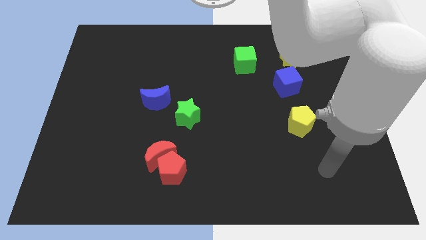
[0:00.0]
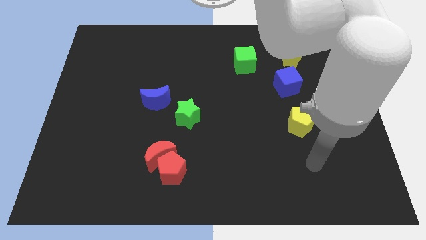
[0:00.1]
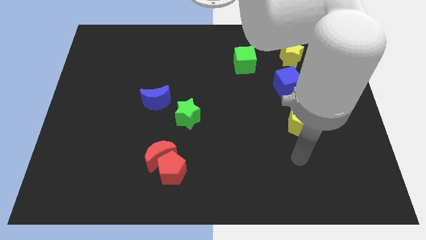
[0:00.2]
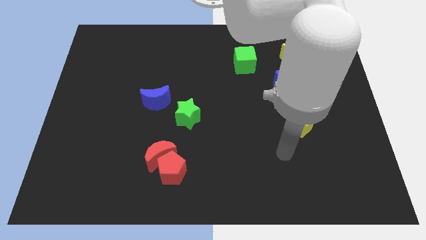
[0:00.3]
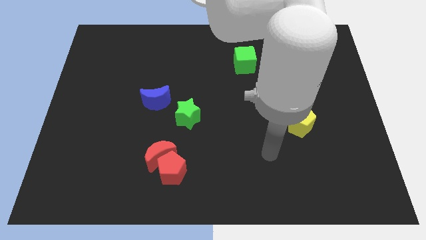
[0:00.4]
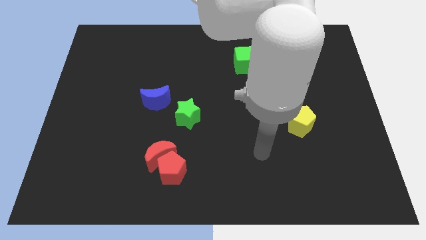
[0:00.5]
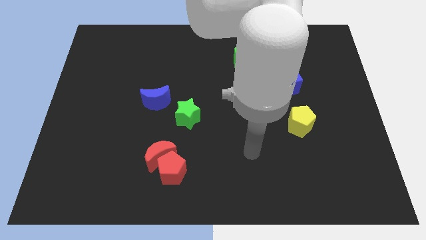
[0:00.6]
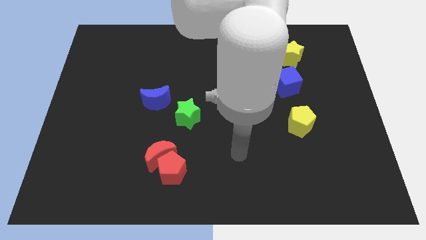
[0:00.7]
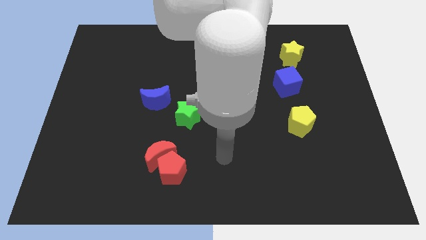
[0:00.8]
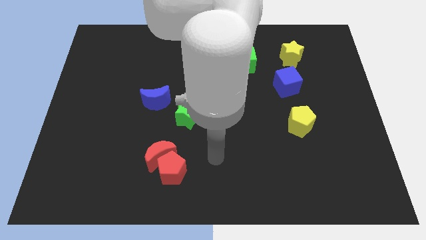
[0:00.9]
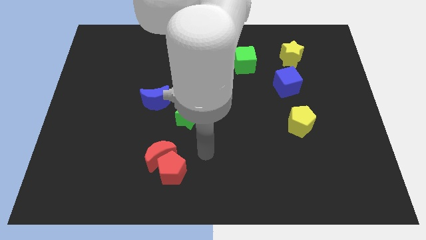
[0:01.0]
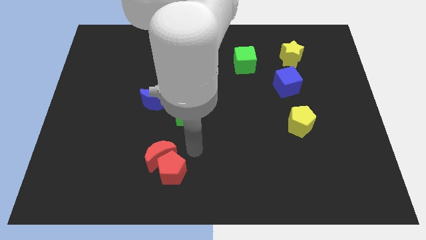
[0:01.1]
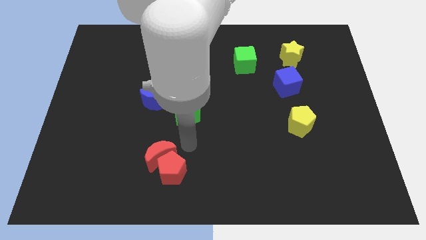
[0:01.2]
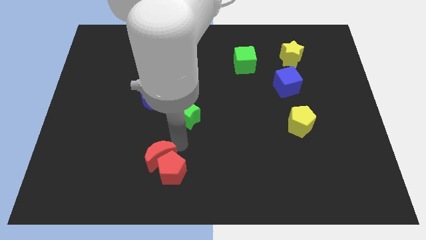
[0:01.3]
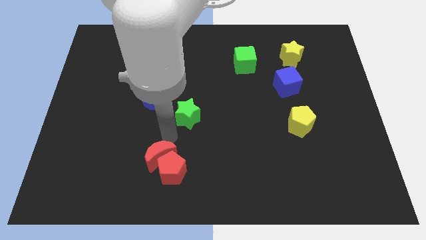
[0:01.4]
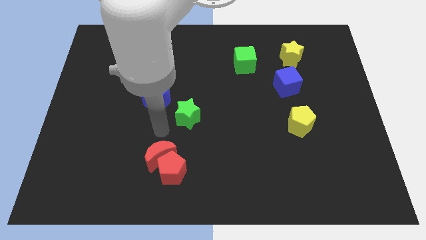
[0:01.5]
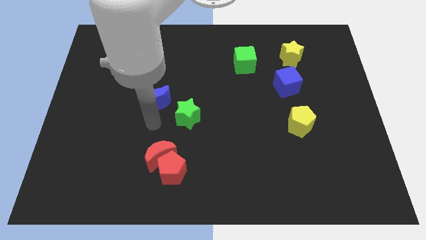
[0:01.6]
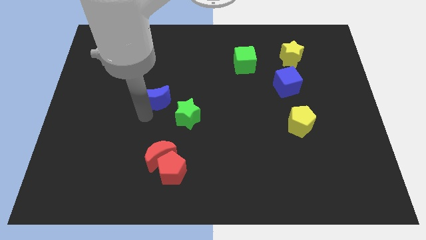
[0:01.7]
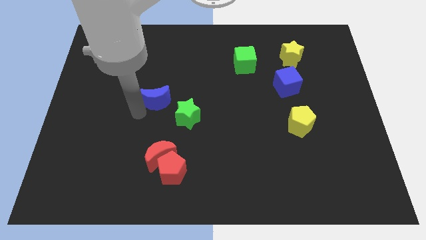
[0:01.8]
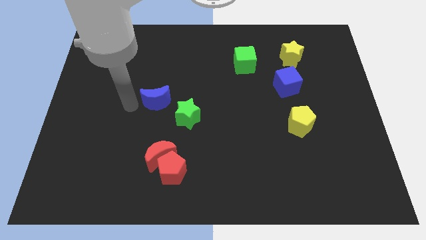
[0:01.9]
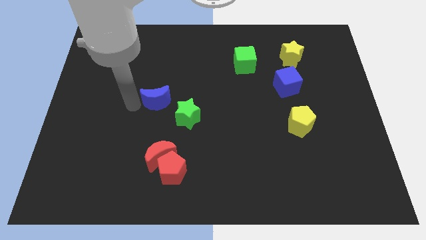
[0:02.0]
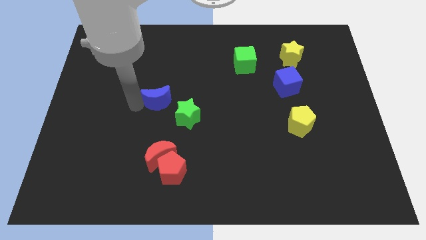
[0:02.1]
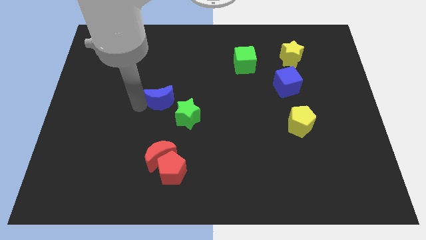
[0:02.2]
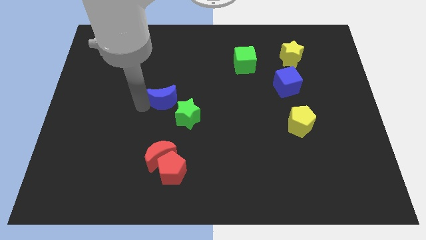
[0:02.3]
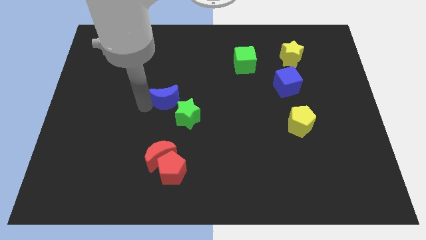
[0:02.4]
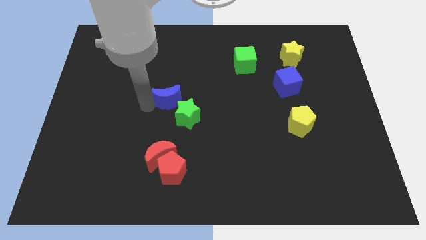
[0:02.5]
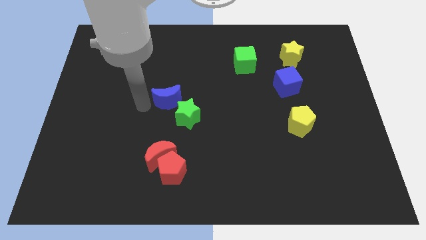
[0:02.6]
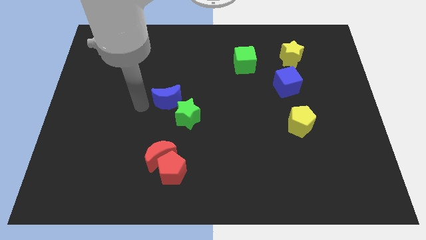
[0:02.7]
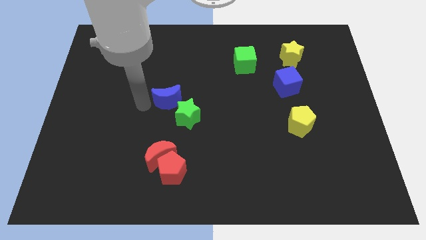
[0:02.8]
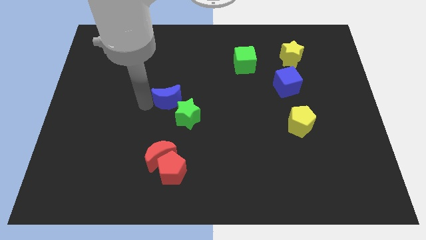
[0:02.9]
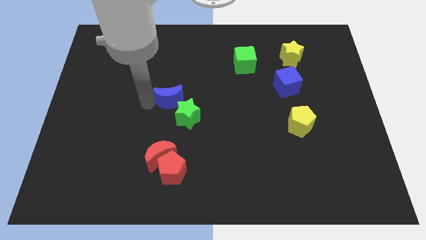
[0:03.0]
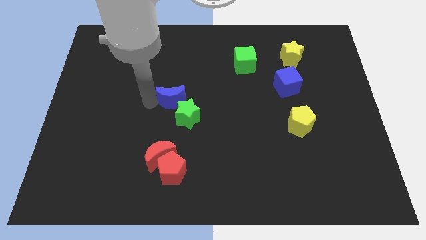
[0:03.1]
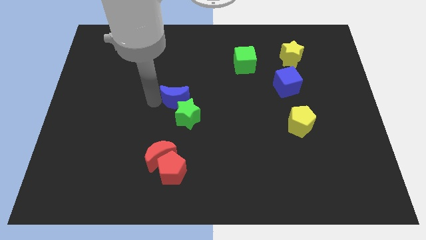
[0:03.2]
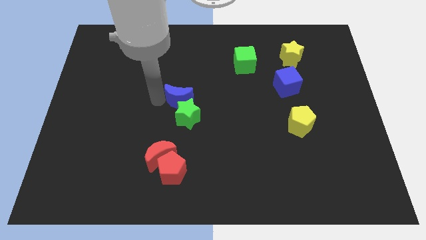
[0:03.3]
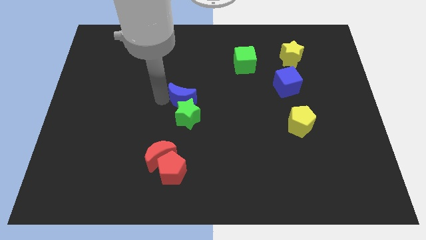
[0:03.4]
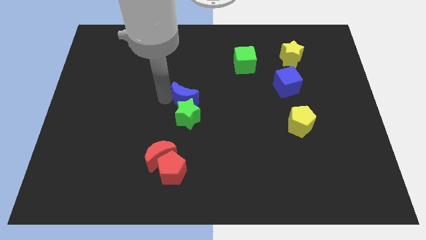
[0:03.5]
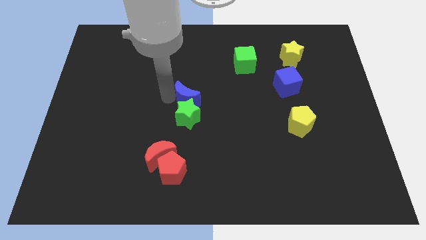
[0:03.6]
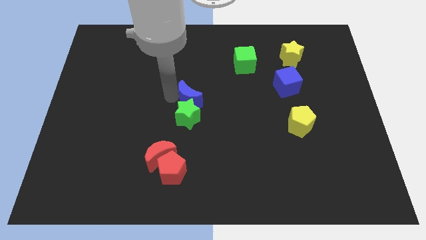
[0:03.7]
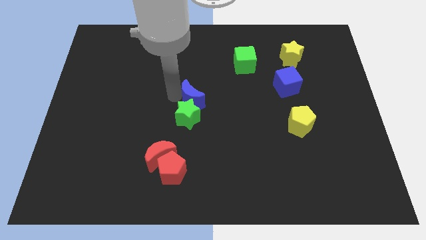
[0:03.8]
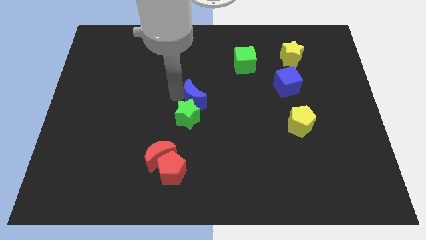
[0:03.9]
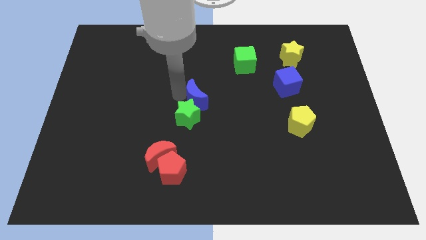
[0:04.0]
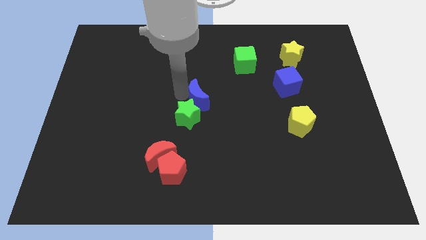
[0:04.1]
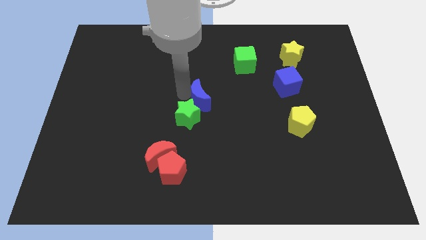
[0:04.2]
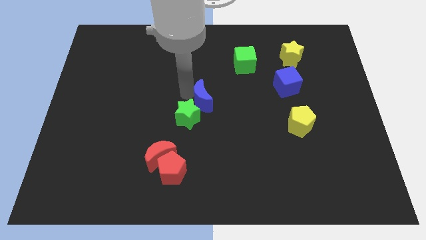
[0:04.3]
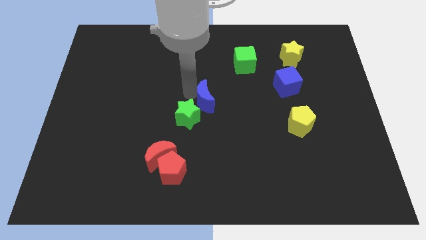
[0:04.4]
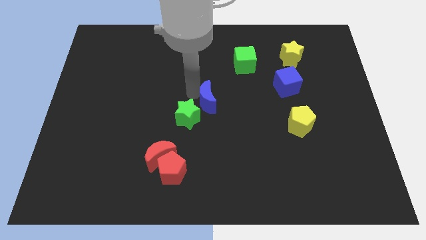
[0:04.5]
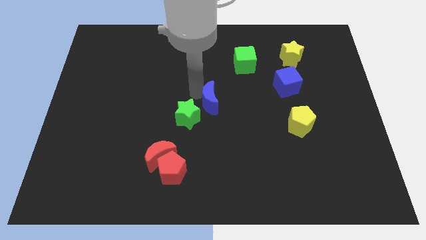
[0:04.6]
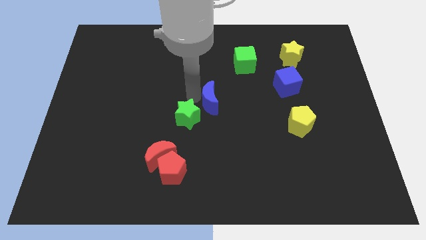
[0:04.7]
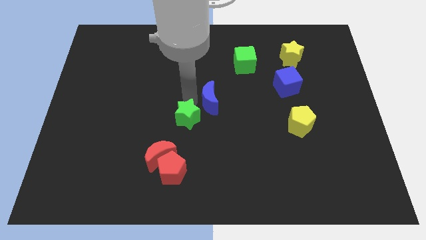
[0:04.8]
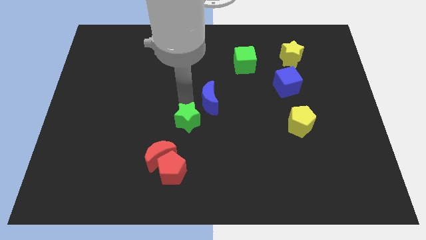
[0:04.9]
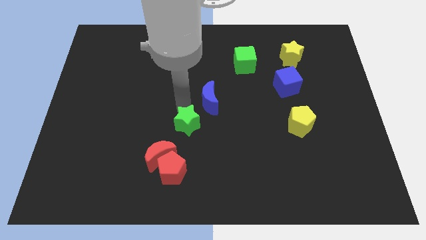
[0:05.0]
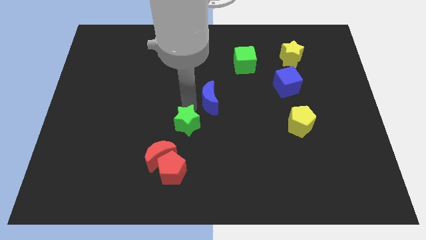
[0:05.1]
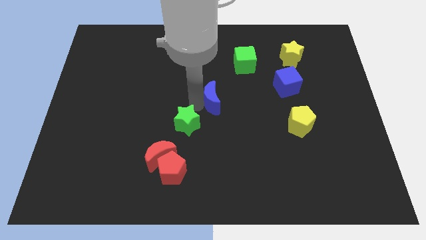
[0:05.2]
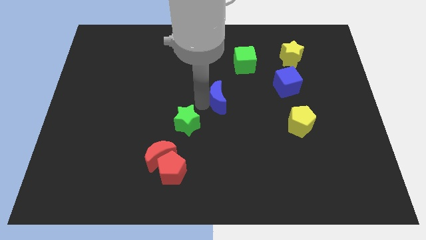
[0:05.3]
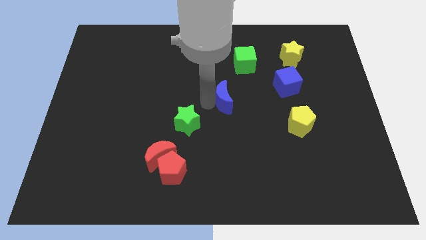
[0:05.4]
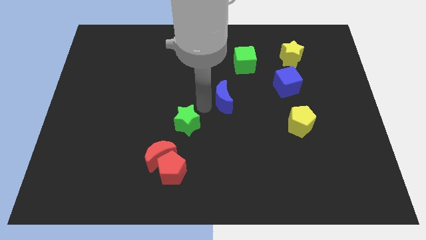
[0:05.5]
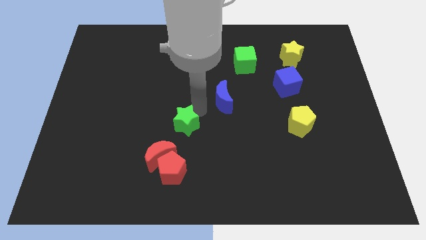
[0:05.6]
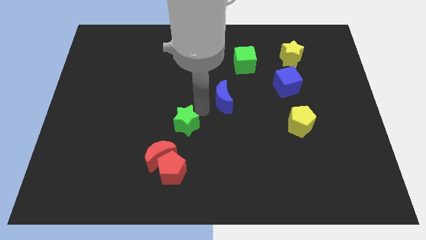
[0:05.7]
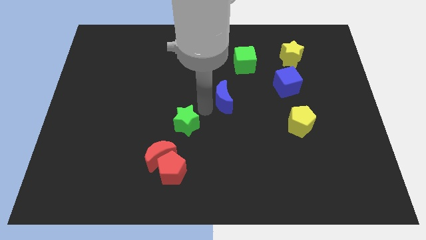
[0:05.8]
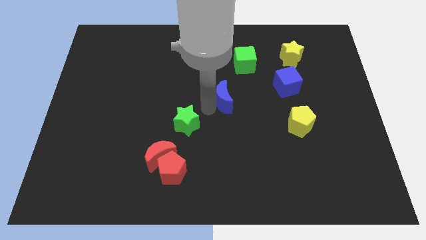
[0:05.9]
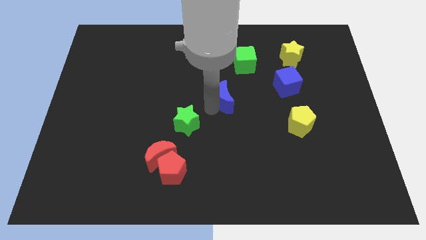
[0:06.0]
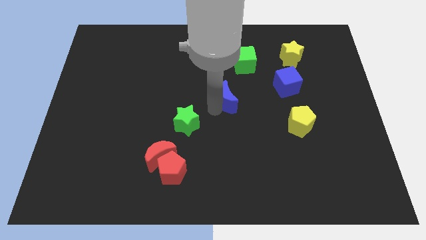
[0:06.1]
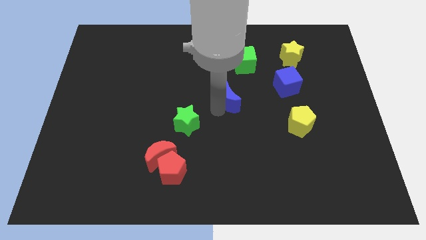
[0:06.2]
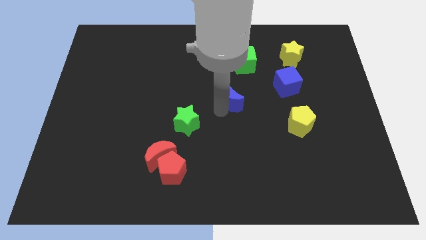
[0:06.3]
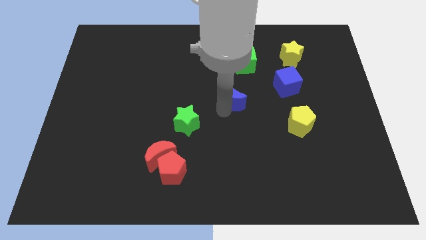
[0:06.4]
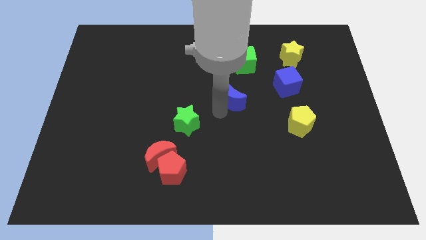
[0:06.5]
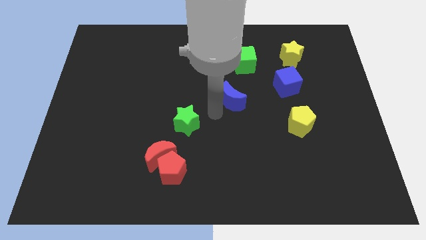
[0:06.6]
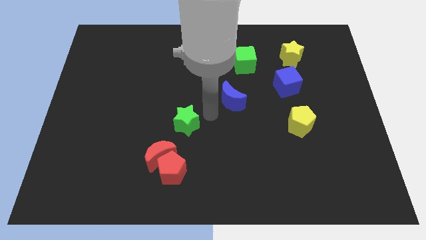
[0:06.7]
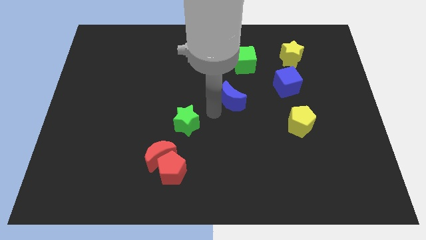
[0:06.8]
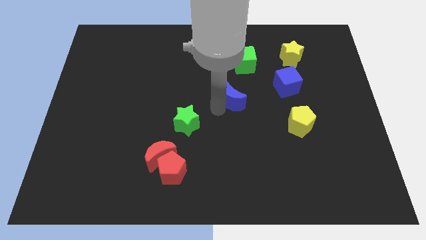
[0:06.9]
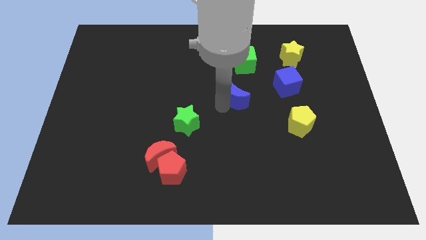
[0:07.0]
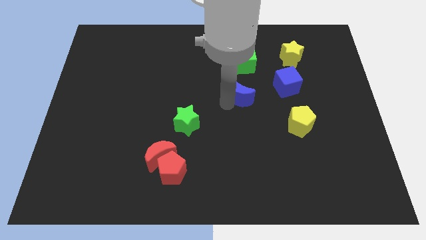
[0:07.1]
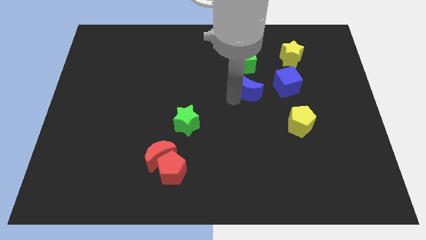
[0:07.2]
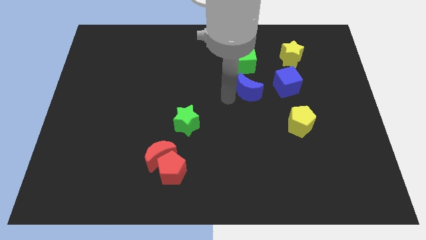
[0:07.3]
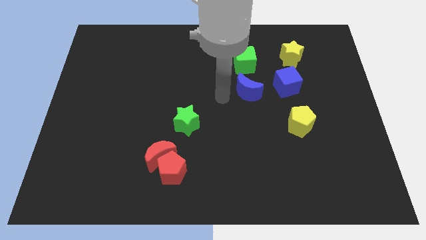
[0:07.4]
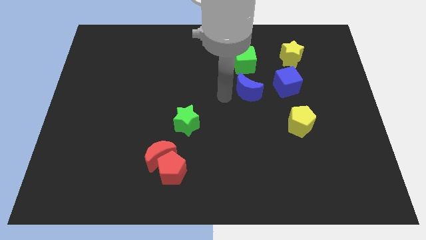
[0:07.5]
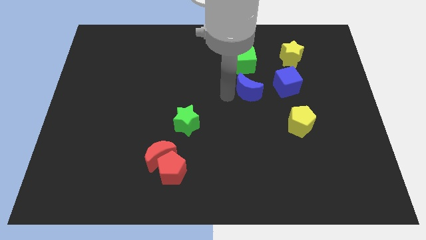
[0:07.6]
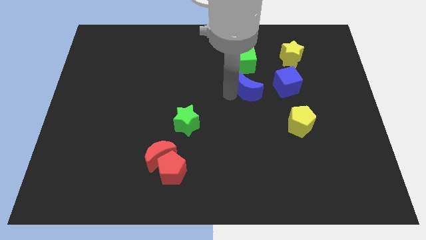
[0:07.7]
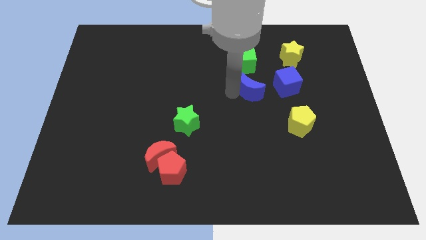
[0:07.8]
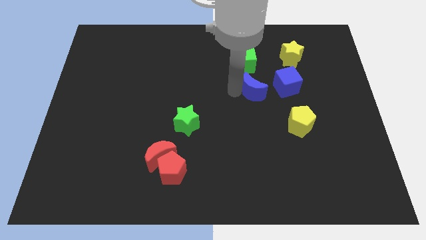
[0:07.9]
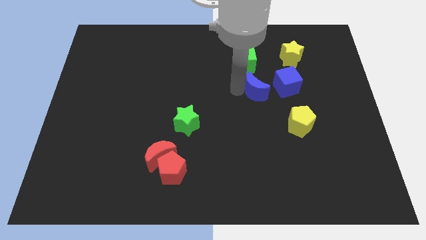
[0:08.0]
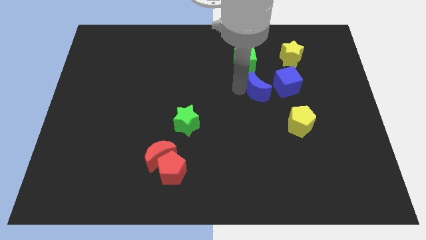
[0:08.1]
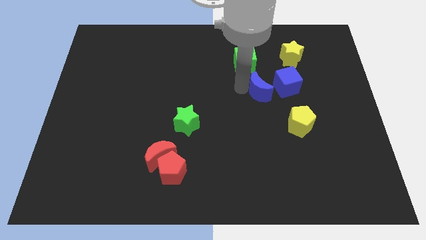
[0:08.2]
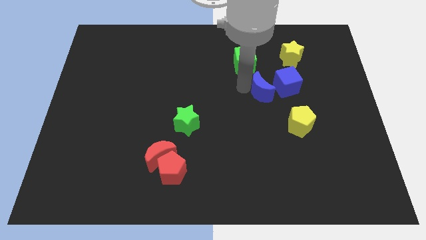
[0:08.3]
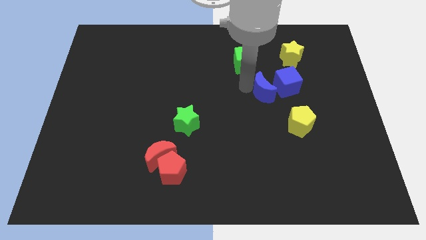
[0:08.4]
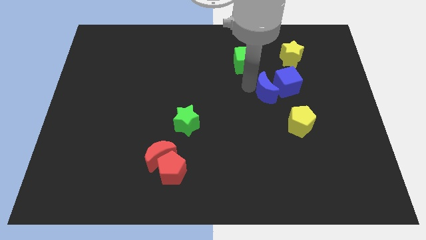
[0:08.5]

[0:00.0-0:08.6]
push the blue moon next to the blue cube
